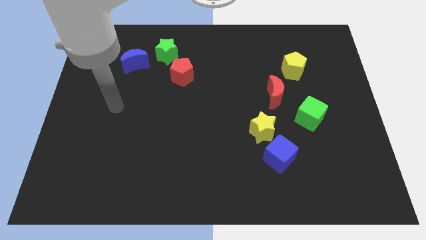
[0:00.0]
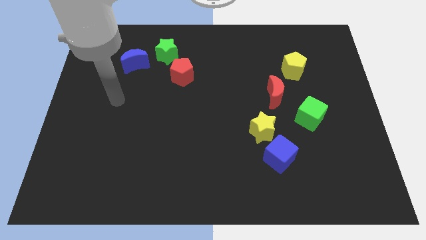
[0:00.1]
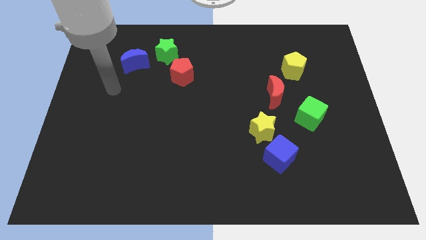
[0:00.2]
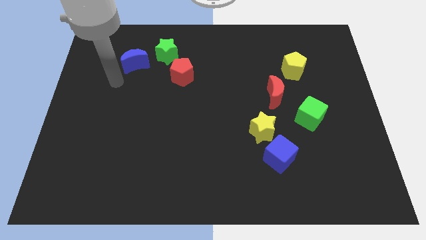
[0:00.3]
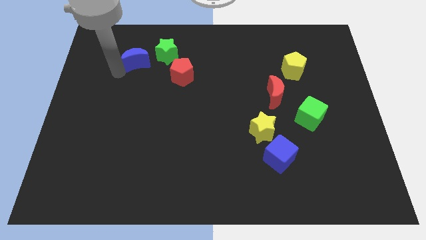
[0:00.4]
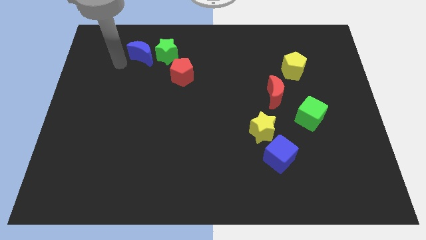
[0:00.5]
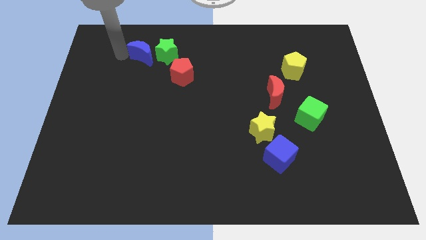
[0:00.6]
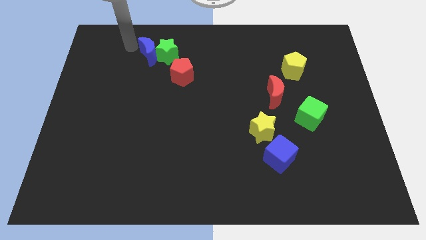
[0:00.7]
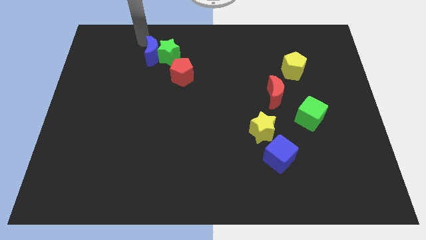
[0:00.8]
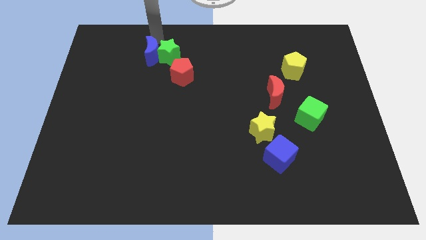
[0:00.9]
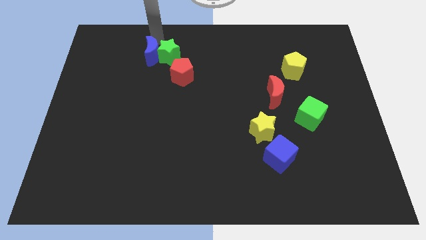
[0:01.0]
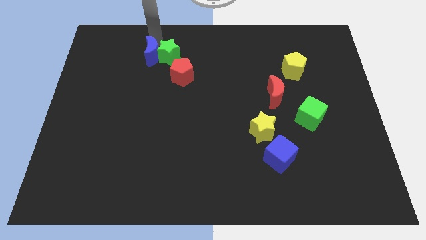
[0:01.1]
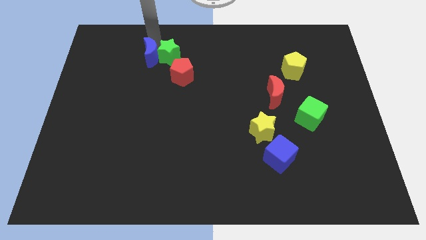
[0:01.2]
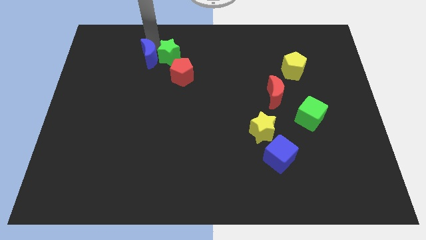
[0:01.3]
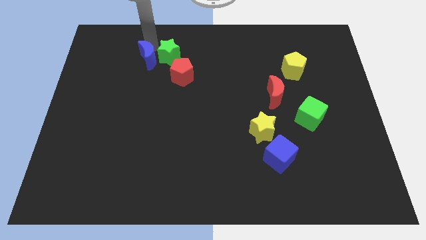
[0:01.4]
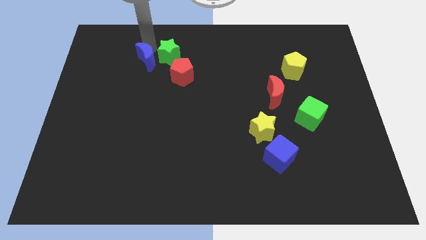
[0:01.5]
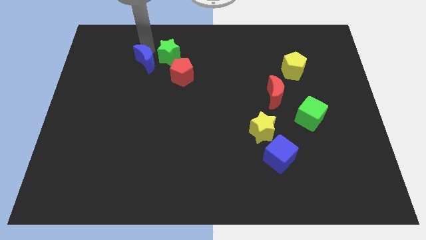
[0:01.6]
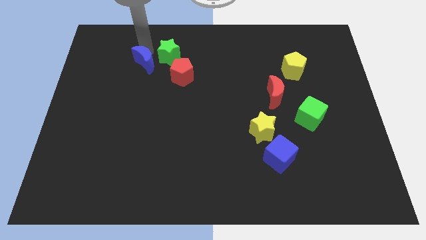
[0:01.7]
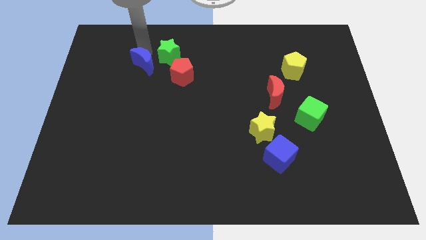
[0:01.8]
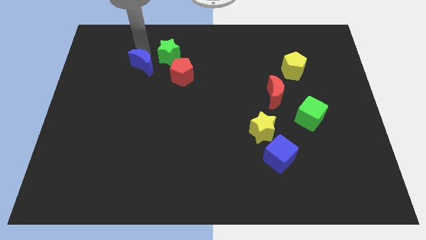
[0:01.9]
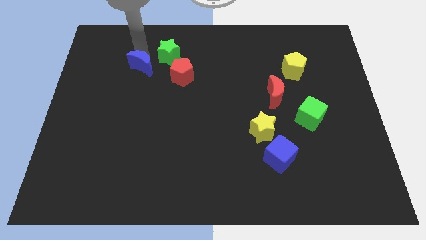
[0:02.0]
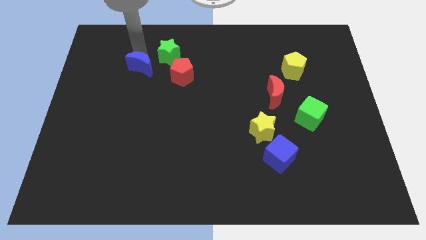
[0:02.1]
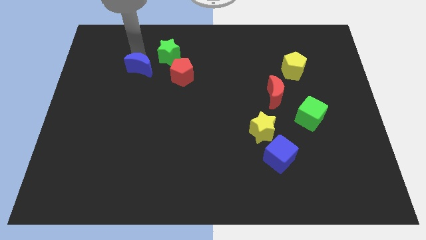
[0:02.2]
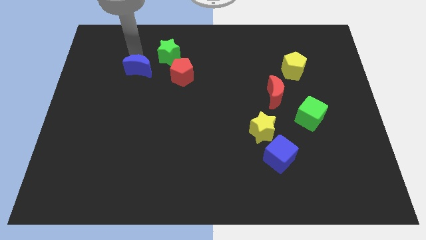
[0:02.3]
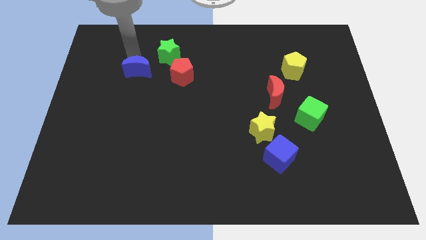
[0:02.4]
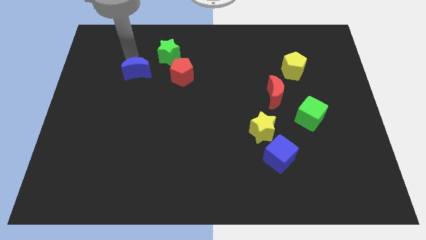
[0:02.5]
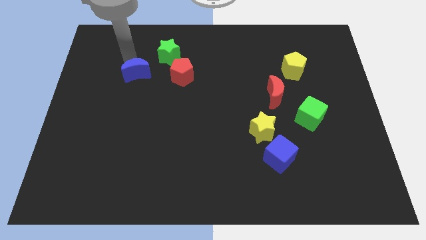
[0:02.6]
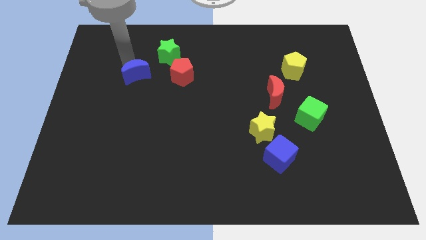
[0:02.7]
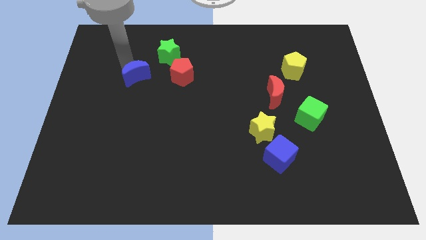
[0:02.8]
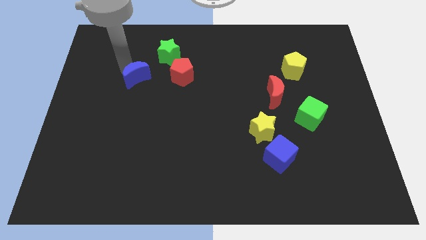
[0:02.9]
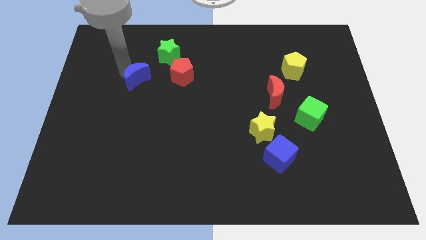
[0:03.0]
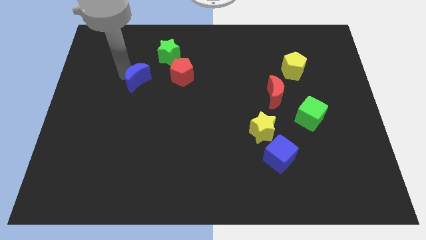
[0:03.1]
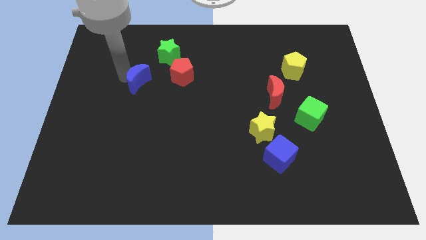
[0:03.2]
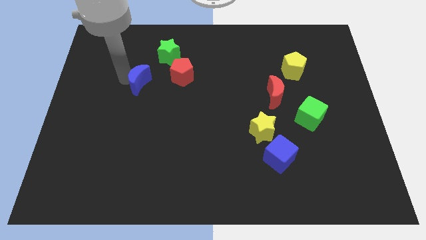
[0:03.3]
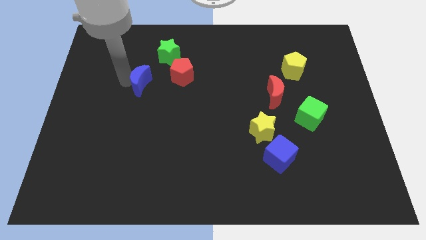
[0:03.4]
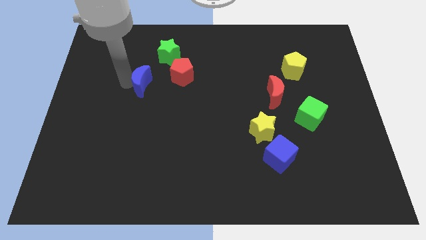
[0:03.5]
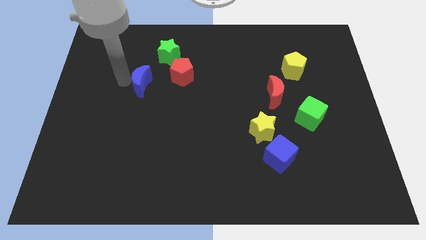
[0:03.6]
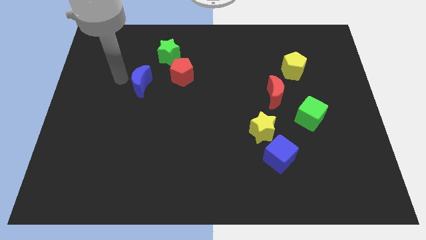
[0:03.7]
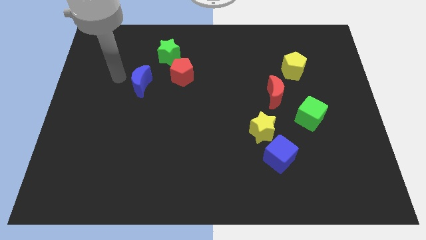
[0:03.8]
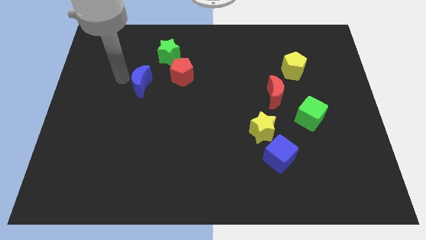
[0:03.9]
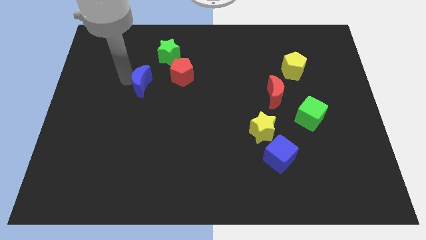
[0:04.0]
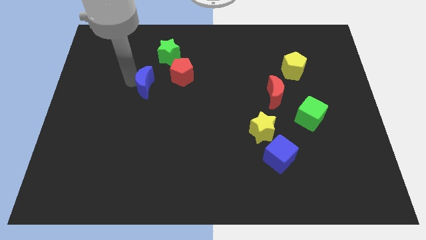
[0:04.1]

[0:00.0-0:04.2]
move the blue moon downwards and to the right a bit

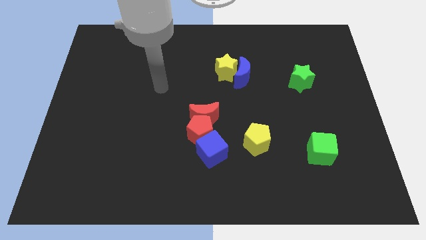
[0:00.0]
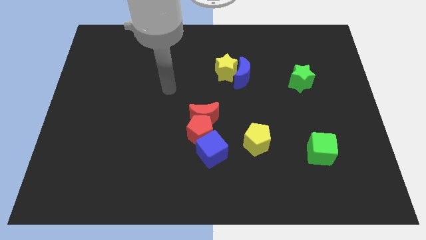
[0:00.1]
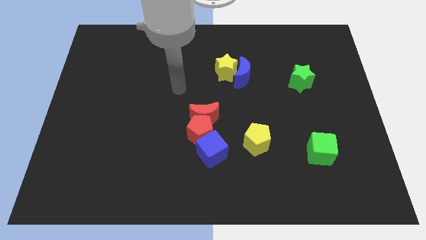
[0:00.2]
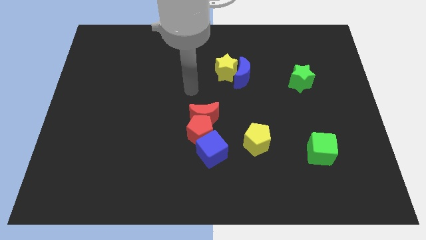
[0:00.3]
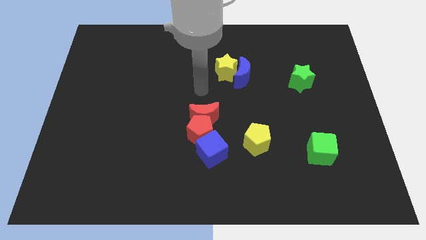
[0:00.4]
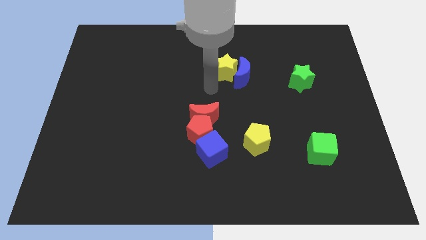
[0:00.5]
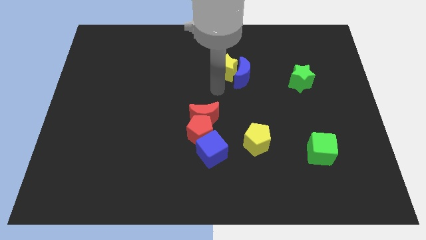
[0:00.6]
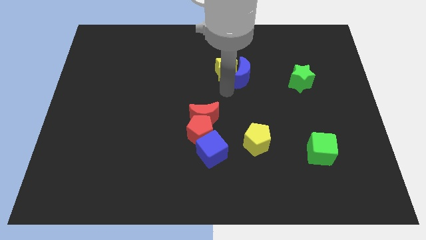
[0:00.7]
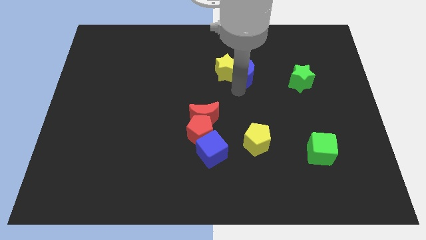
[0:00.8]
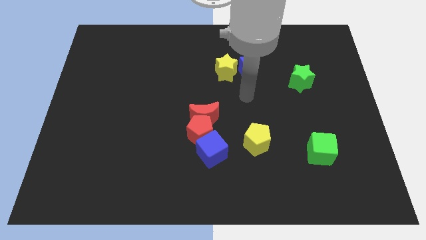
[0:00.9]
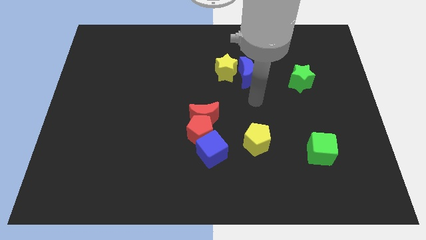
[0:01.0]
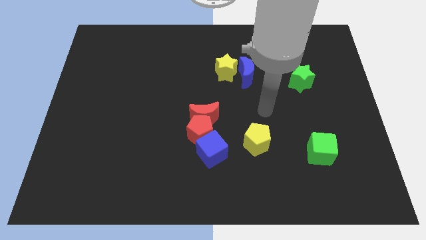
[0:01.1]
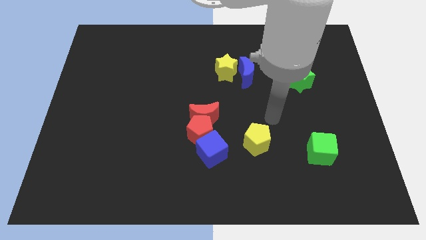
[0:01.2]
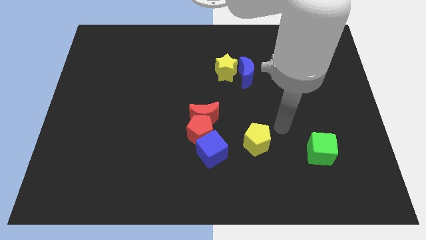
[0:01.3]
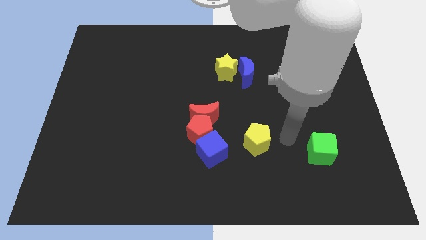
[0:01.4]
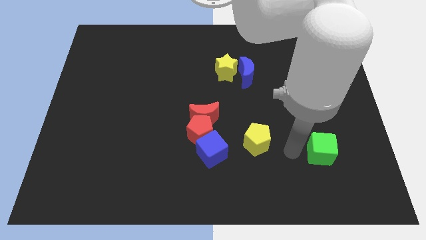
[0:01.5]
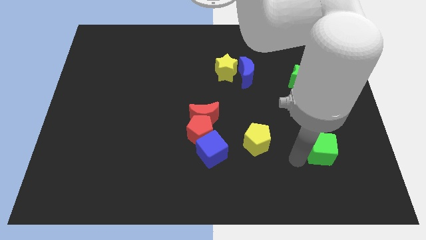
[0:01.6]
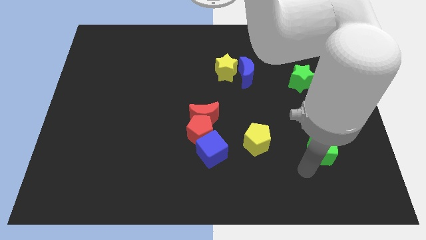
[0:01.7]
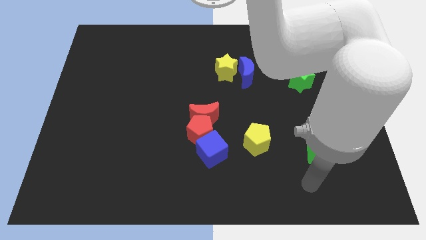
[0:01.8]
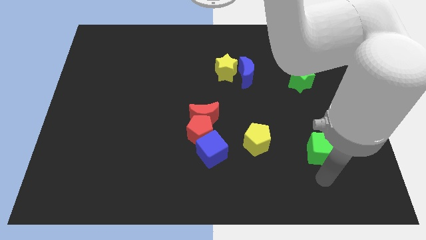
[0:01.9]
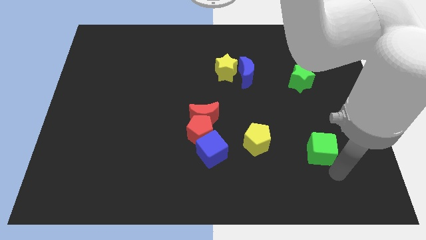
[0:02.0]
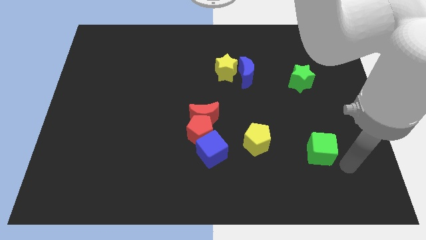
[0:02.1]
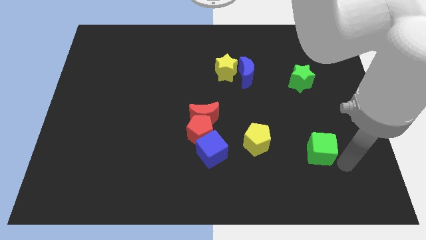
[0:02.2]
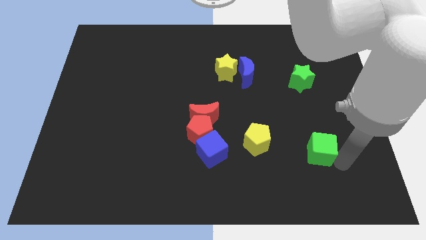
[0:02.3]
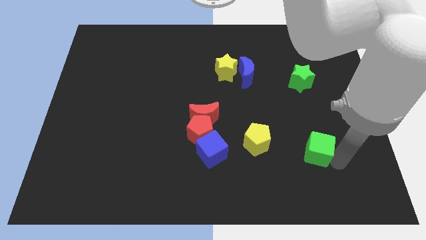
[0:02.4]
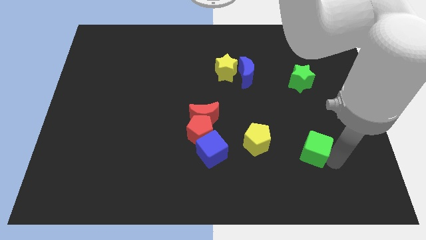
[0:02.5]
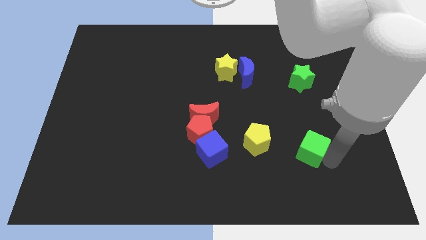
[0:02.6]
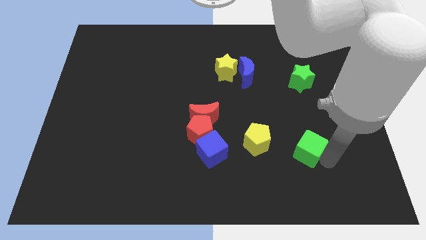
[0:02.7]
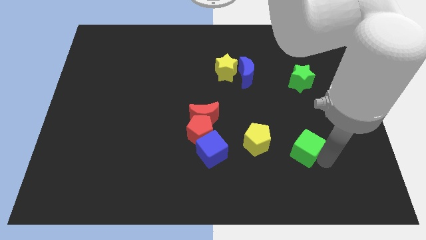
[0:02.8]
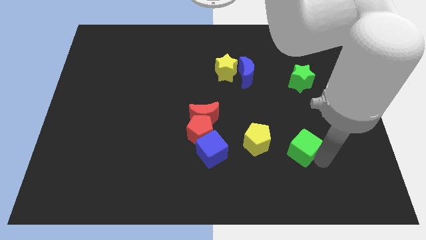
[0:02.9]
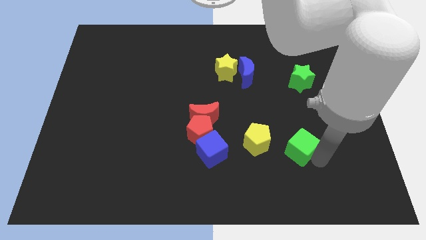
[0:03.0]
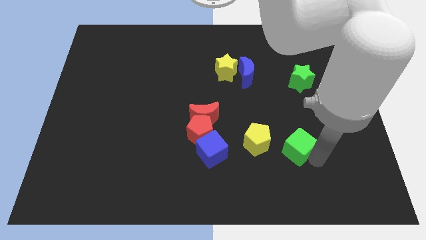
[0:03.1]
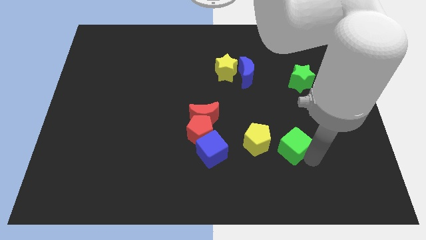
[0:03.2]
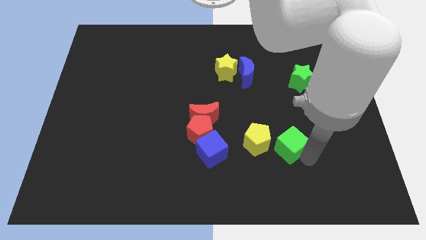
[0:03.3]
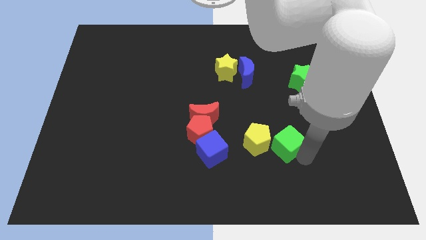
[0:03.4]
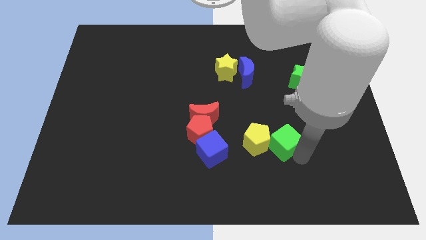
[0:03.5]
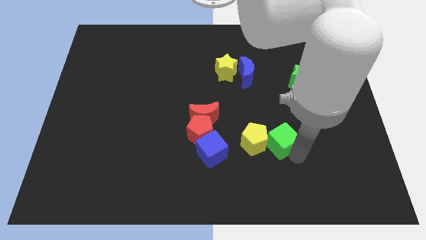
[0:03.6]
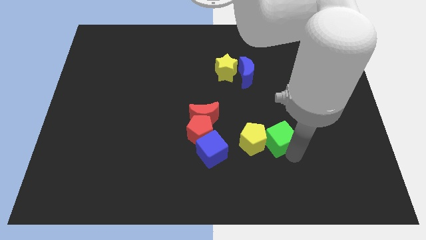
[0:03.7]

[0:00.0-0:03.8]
slide the green cube up and left a little

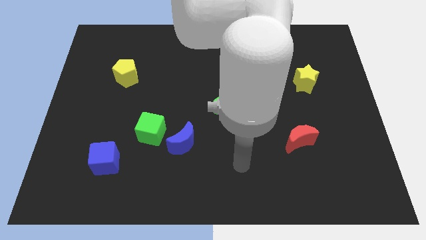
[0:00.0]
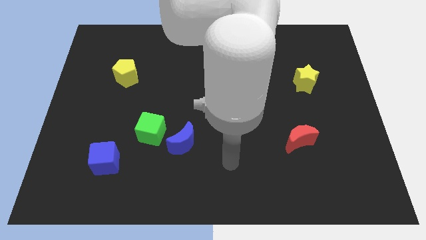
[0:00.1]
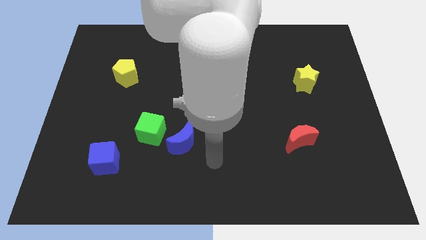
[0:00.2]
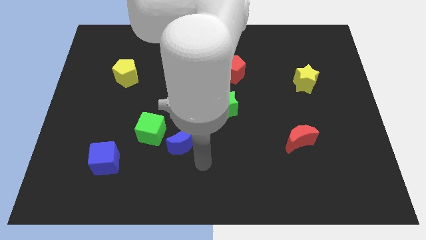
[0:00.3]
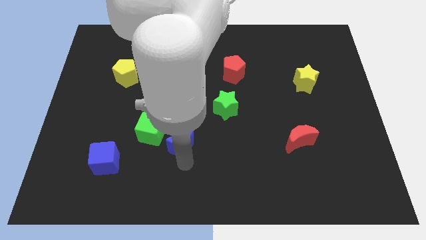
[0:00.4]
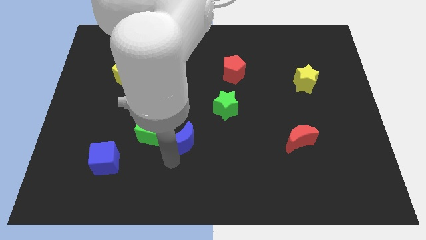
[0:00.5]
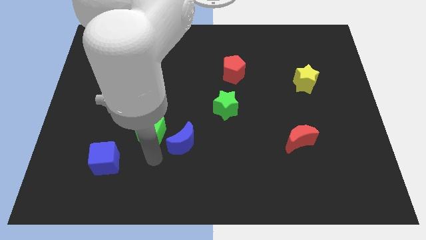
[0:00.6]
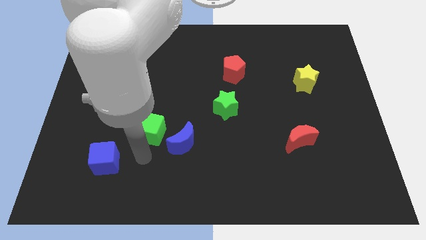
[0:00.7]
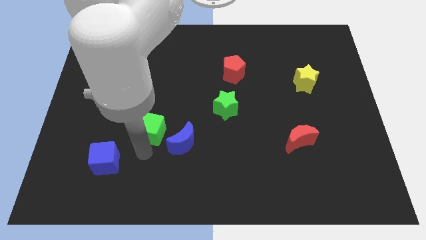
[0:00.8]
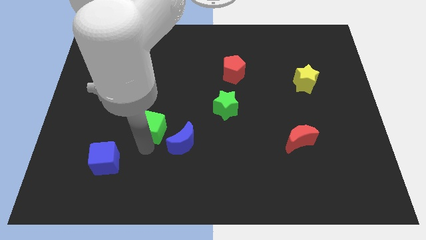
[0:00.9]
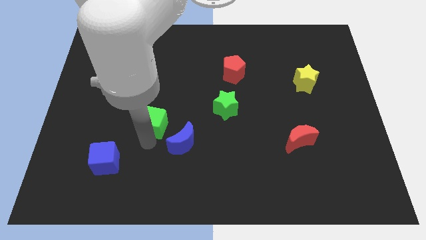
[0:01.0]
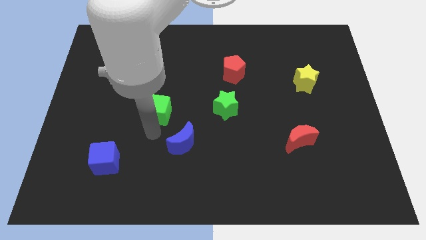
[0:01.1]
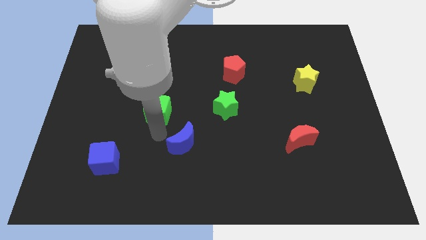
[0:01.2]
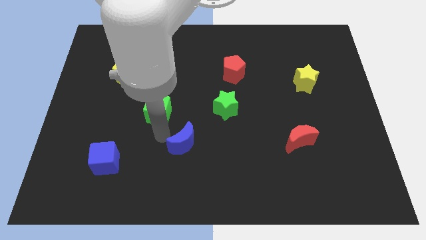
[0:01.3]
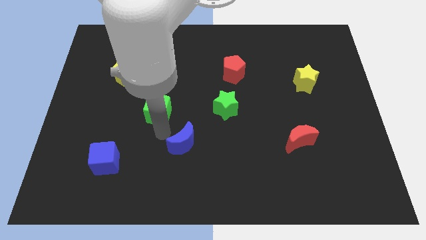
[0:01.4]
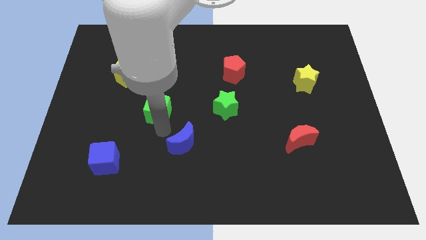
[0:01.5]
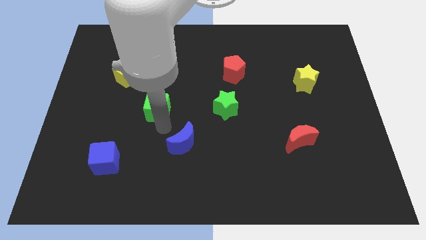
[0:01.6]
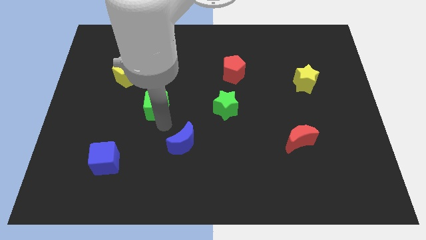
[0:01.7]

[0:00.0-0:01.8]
push the green cube a bit up
